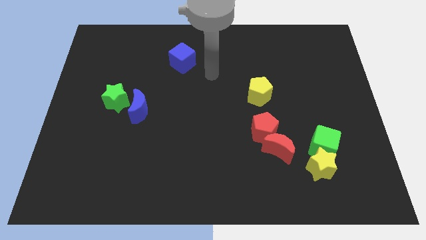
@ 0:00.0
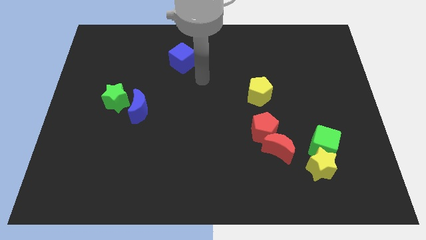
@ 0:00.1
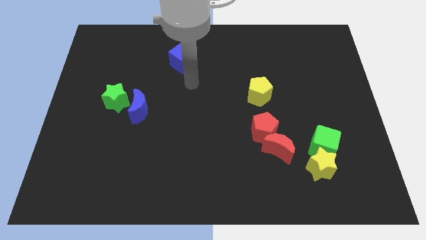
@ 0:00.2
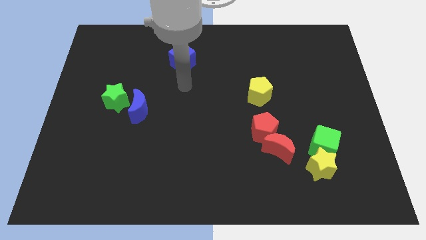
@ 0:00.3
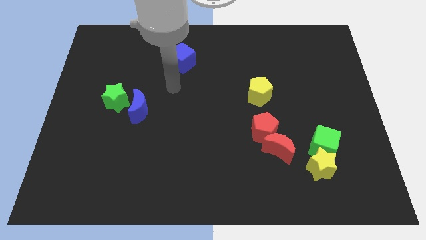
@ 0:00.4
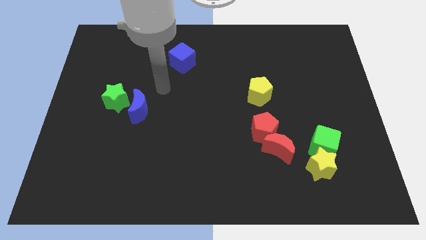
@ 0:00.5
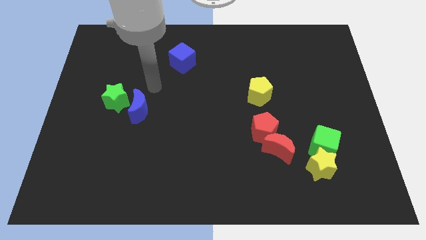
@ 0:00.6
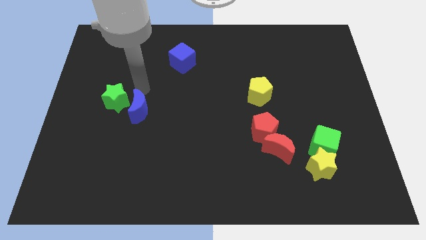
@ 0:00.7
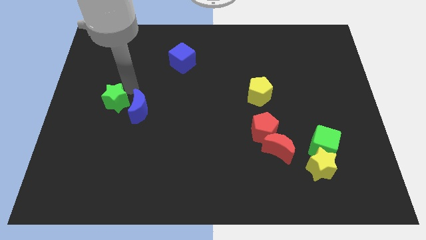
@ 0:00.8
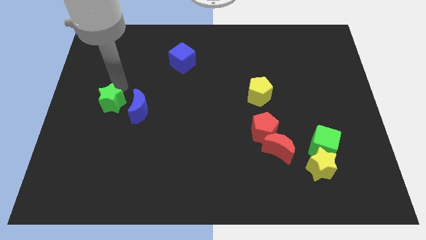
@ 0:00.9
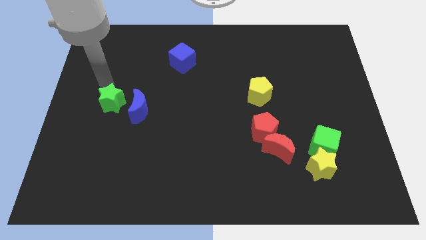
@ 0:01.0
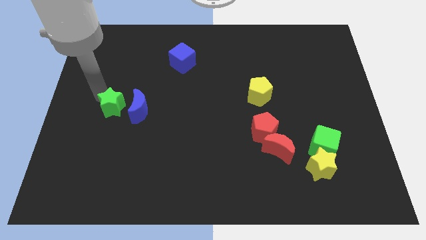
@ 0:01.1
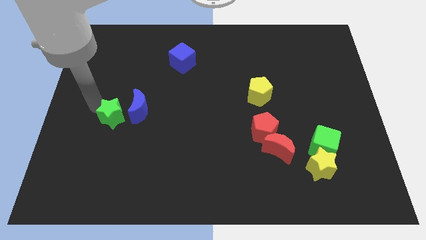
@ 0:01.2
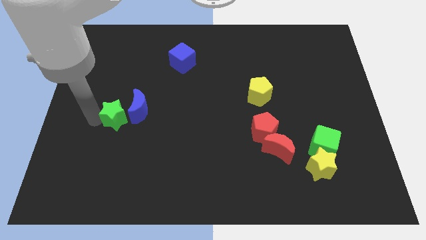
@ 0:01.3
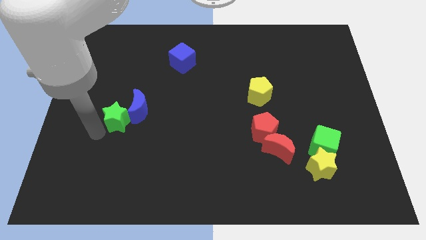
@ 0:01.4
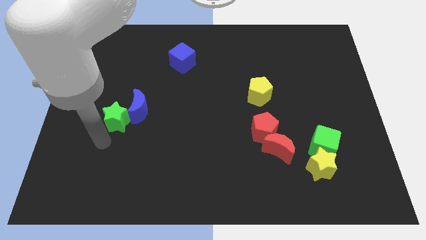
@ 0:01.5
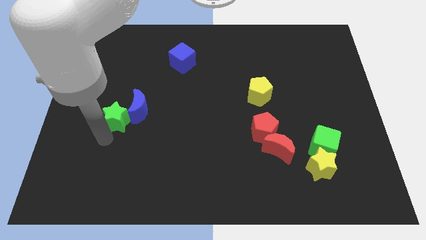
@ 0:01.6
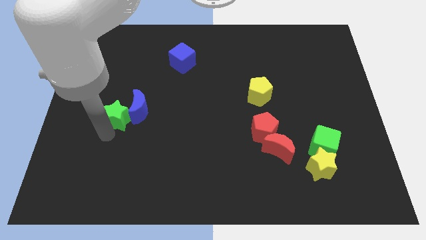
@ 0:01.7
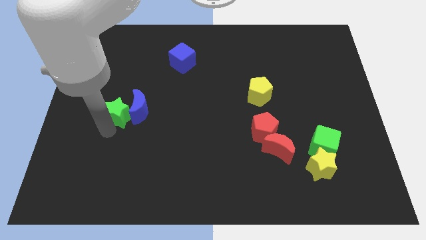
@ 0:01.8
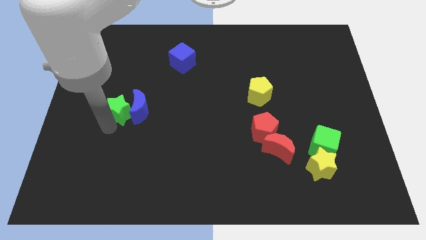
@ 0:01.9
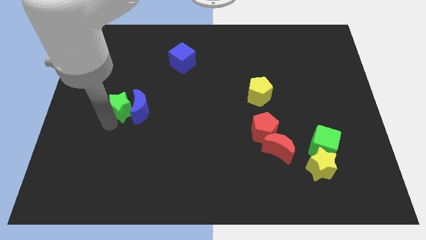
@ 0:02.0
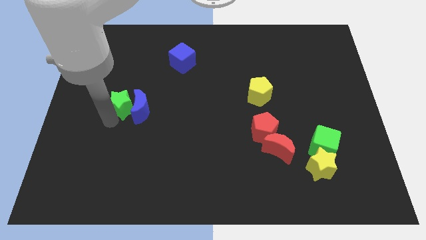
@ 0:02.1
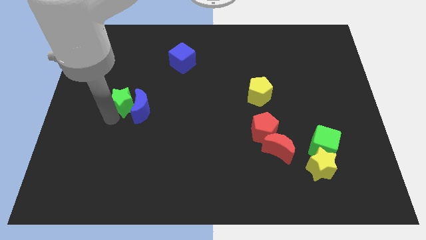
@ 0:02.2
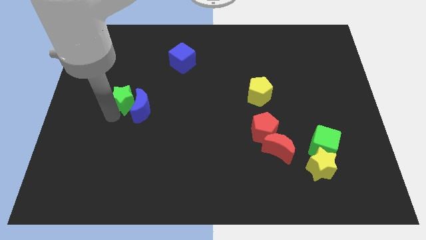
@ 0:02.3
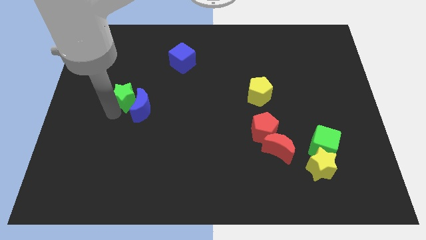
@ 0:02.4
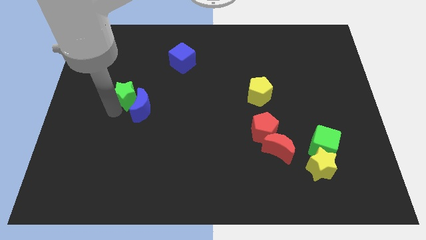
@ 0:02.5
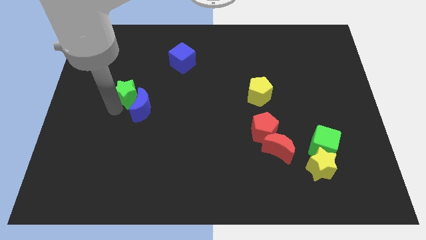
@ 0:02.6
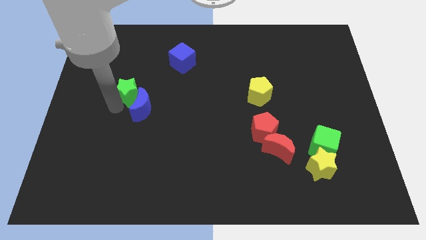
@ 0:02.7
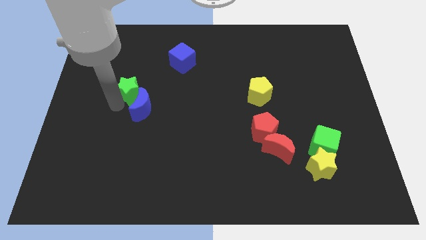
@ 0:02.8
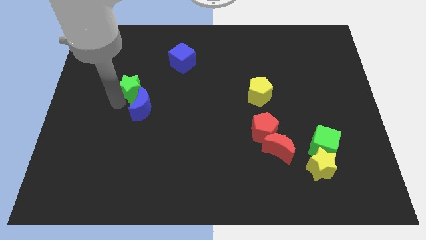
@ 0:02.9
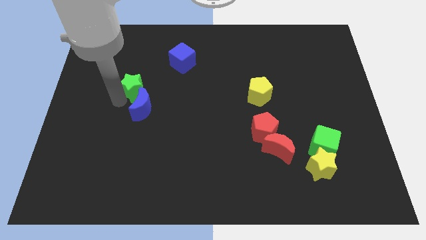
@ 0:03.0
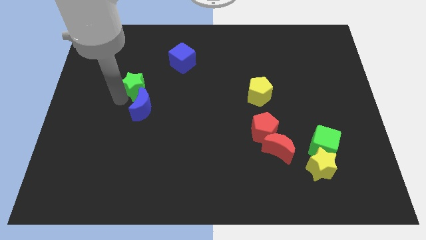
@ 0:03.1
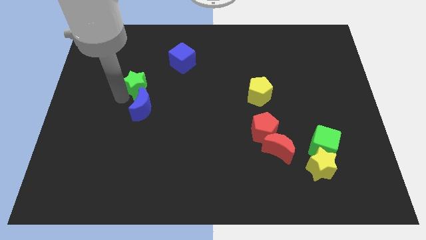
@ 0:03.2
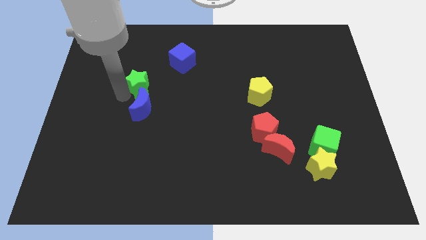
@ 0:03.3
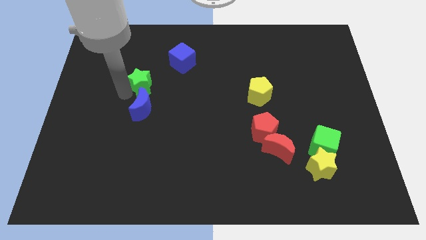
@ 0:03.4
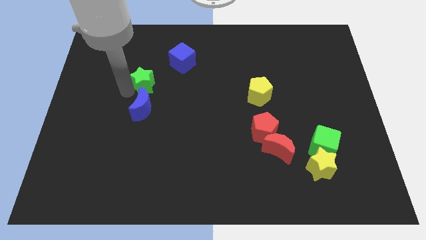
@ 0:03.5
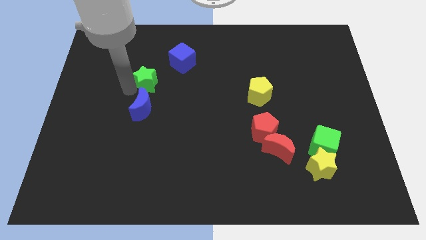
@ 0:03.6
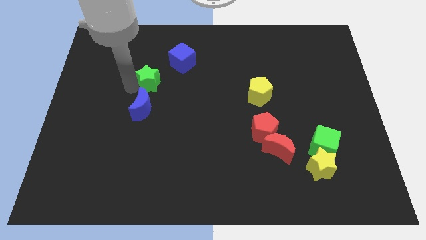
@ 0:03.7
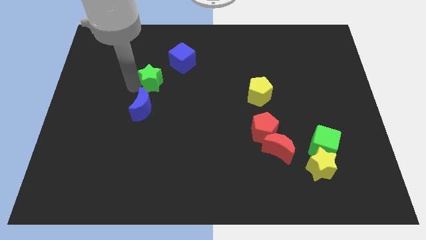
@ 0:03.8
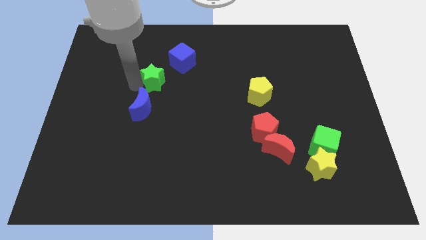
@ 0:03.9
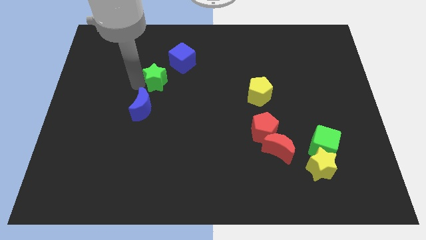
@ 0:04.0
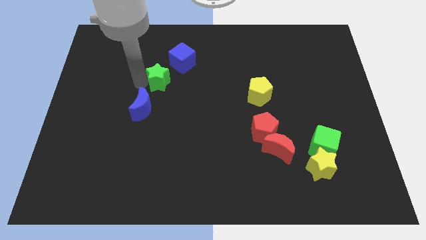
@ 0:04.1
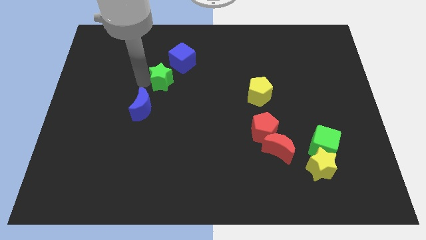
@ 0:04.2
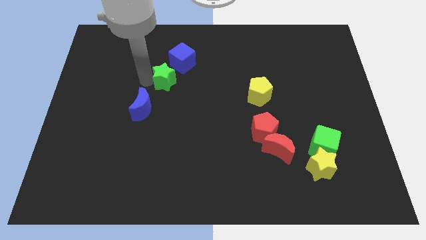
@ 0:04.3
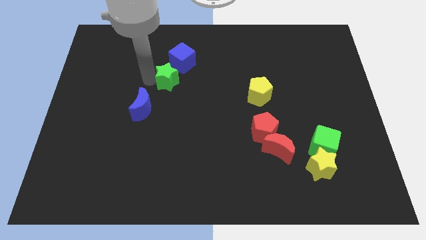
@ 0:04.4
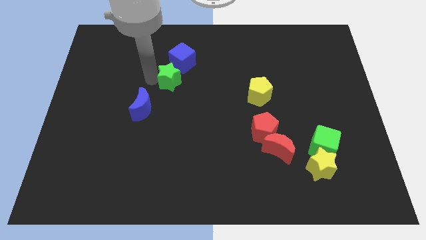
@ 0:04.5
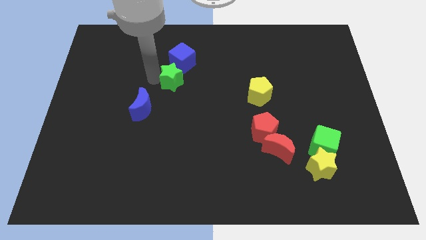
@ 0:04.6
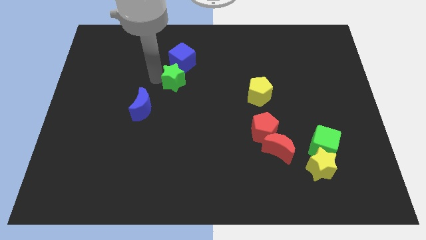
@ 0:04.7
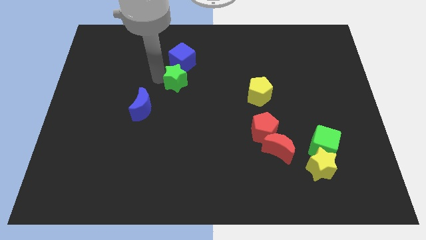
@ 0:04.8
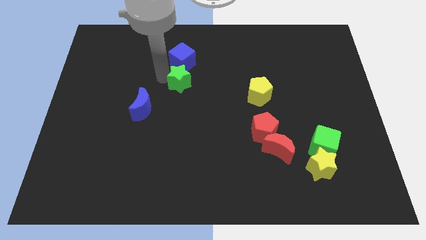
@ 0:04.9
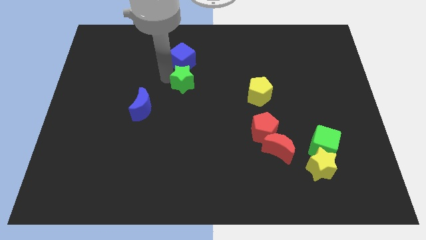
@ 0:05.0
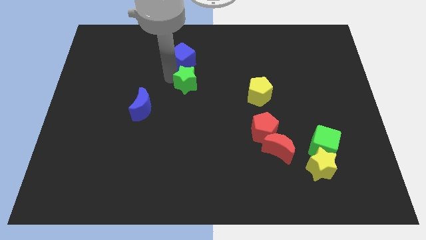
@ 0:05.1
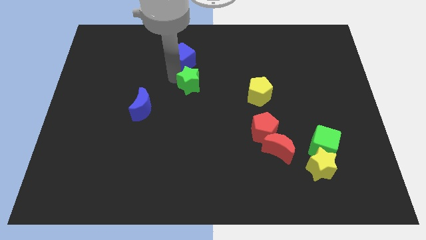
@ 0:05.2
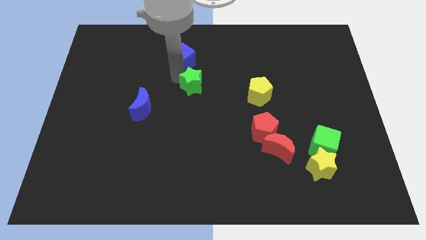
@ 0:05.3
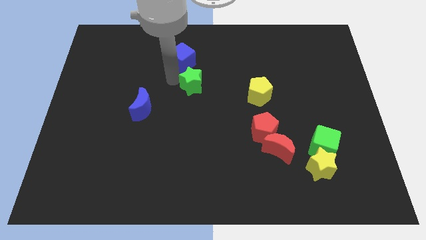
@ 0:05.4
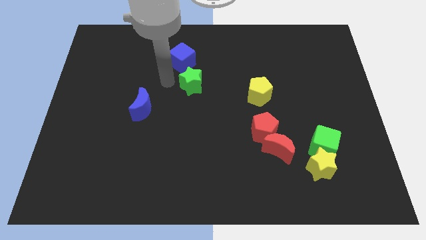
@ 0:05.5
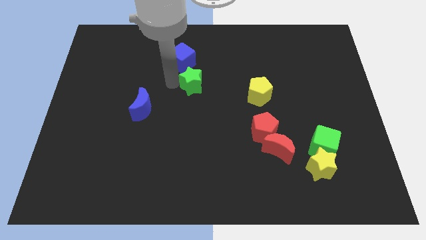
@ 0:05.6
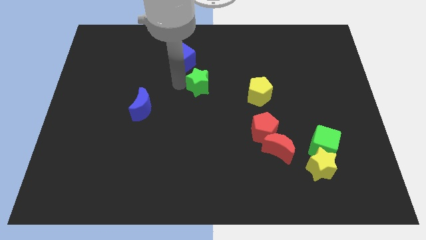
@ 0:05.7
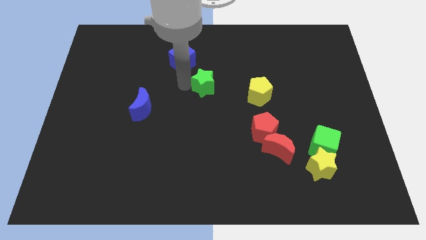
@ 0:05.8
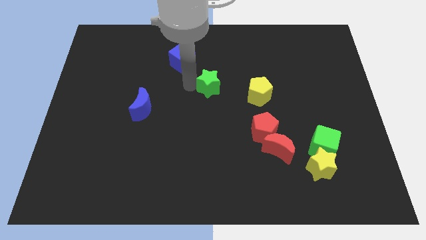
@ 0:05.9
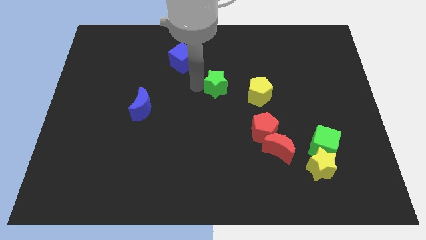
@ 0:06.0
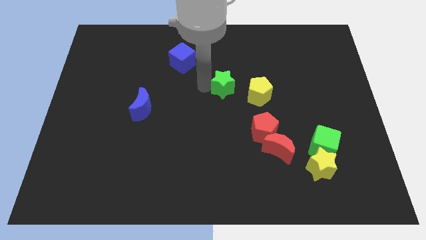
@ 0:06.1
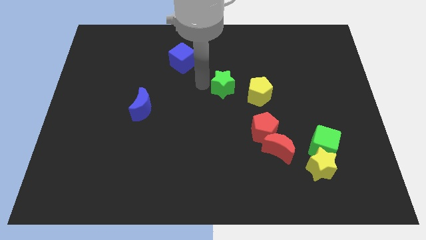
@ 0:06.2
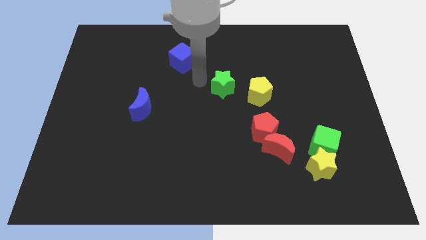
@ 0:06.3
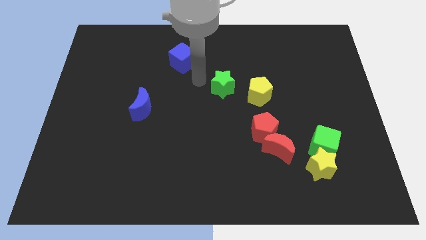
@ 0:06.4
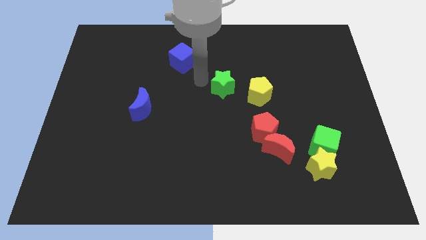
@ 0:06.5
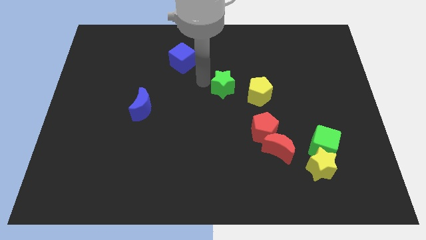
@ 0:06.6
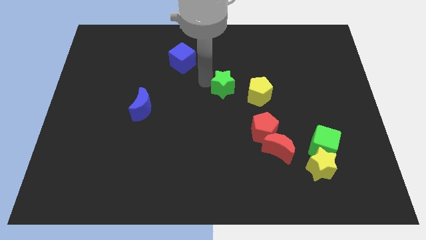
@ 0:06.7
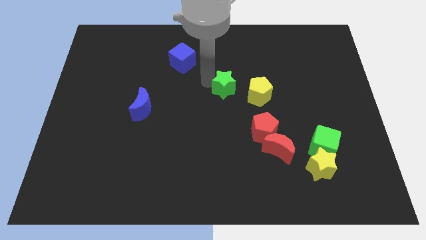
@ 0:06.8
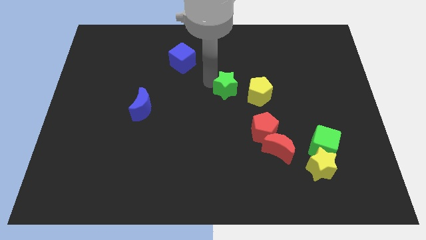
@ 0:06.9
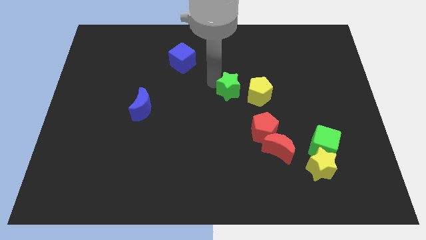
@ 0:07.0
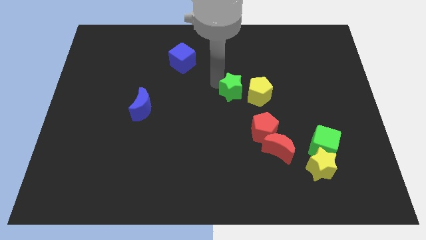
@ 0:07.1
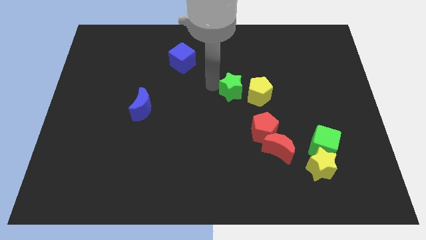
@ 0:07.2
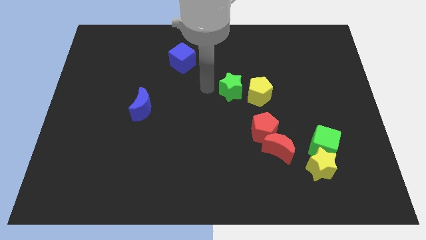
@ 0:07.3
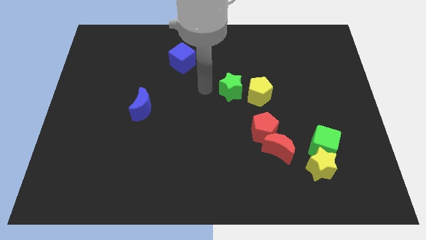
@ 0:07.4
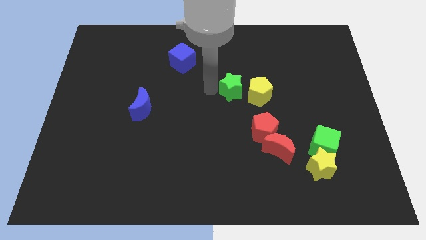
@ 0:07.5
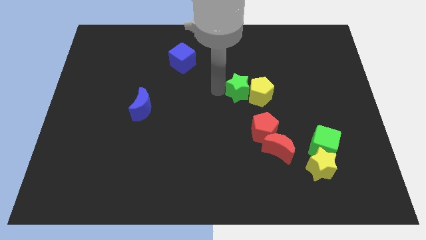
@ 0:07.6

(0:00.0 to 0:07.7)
slide the green star next to the yellow pentagon
